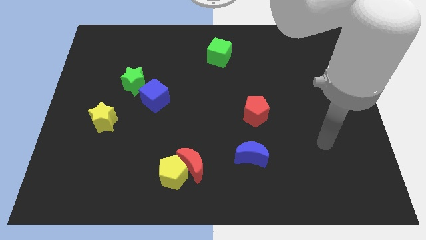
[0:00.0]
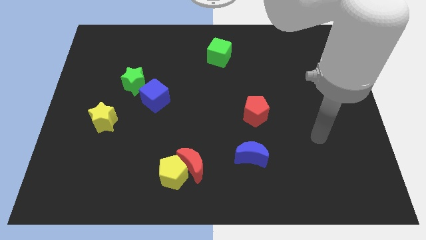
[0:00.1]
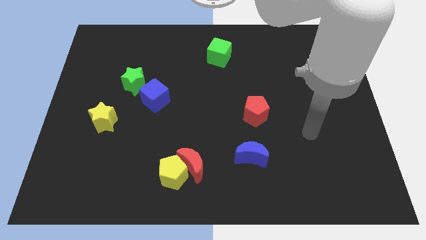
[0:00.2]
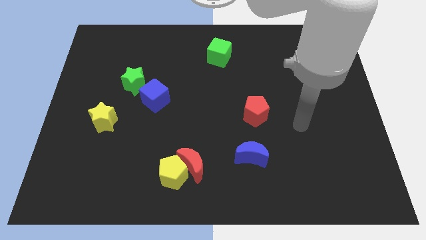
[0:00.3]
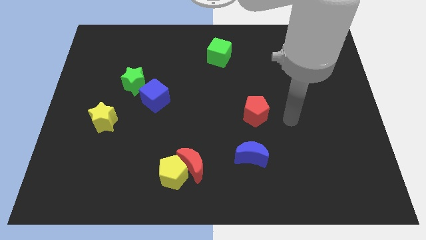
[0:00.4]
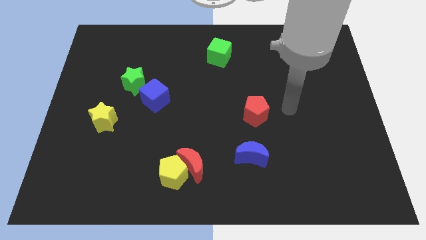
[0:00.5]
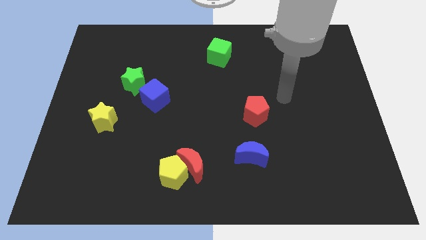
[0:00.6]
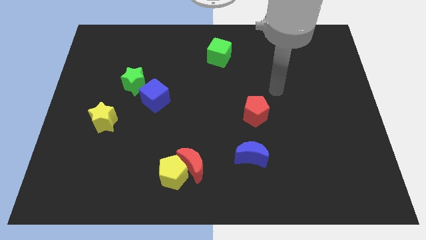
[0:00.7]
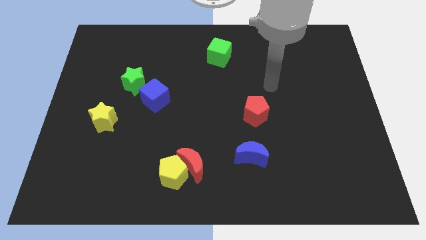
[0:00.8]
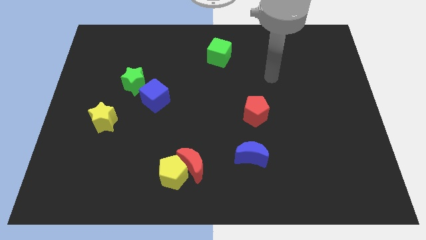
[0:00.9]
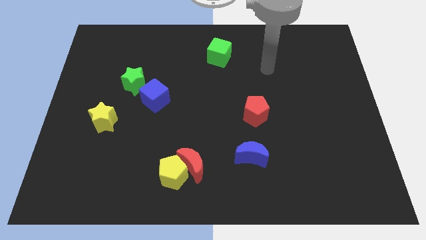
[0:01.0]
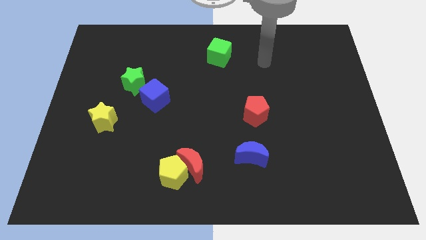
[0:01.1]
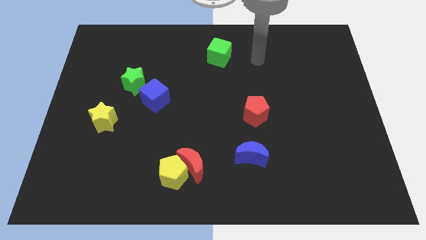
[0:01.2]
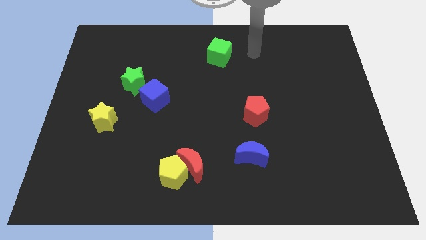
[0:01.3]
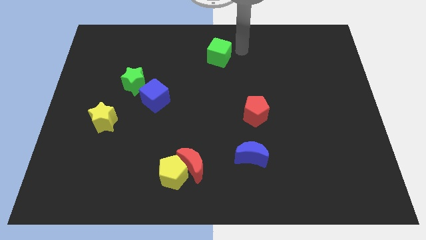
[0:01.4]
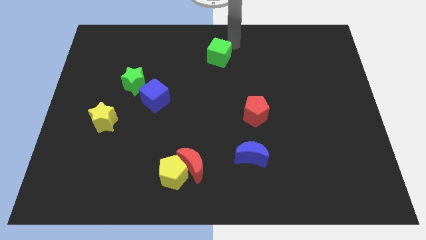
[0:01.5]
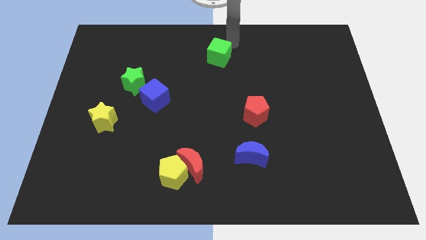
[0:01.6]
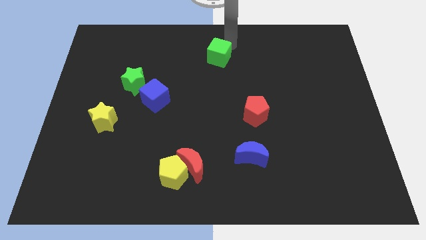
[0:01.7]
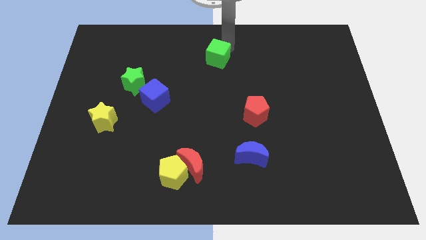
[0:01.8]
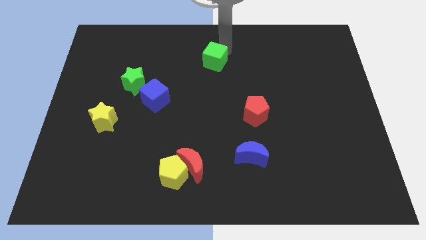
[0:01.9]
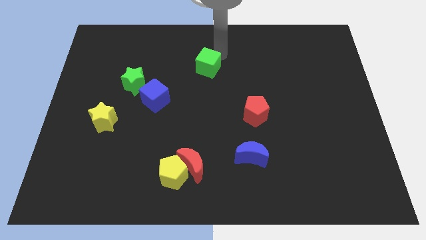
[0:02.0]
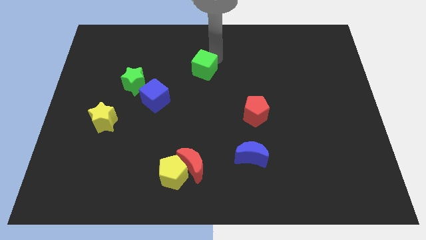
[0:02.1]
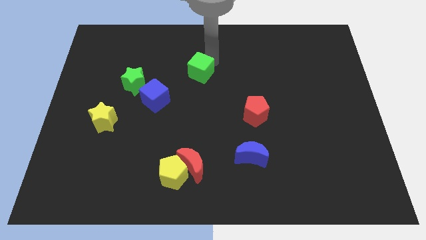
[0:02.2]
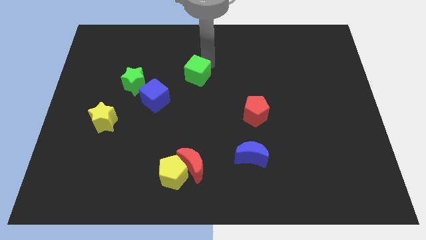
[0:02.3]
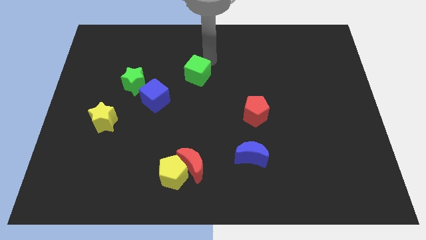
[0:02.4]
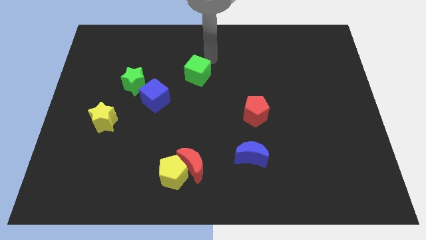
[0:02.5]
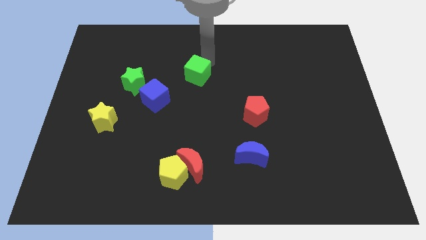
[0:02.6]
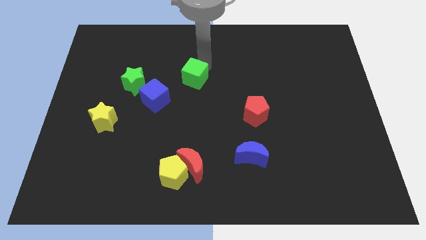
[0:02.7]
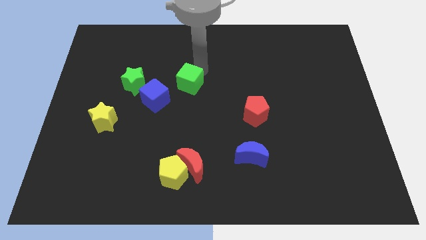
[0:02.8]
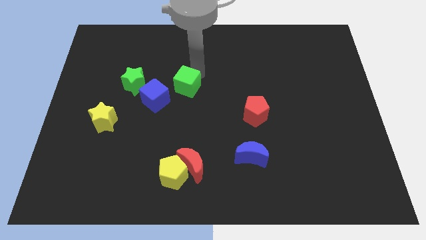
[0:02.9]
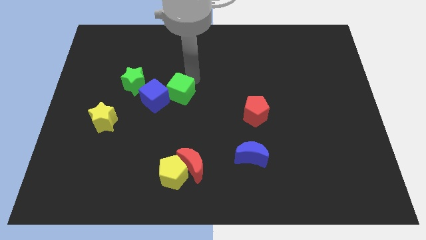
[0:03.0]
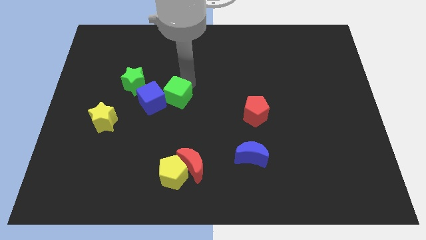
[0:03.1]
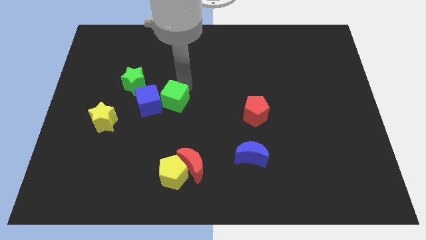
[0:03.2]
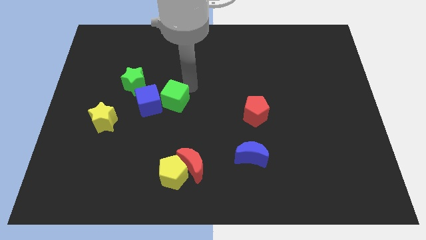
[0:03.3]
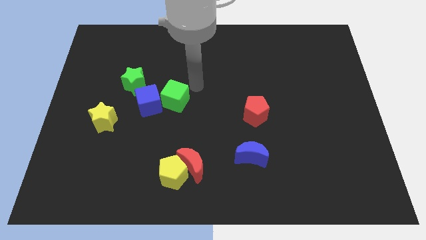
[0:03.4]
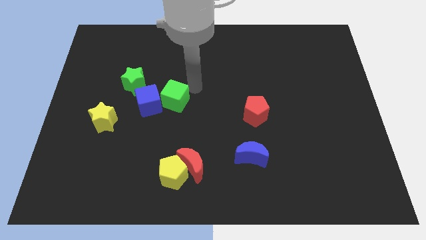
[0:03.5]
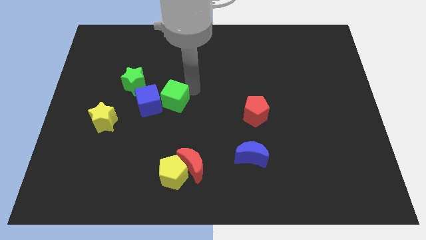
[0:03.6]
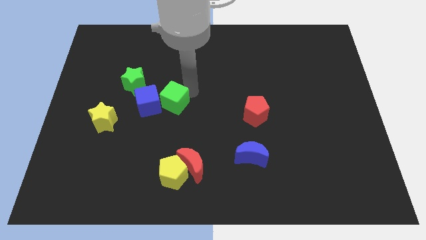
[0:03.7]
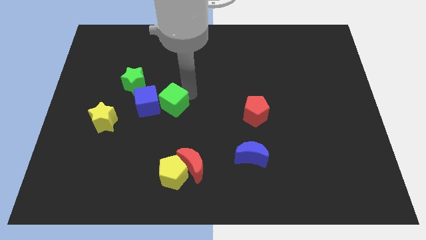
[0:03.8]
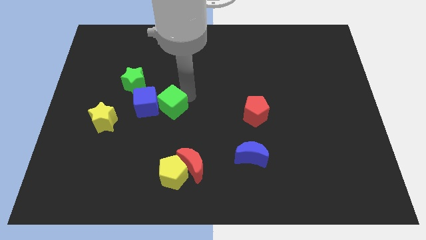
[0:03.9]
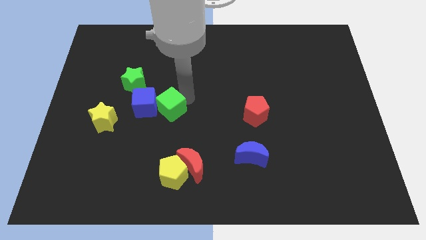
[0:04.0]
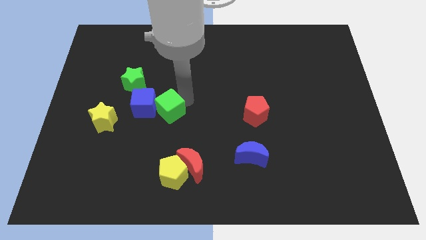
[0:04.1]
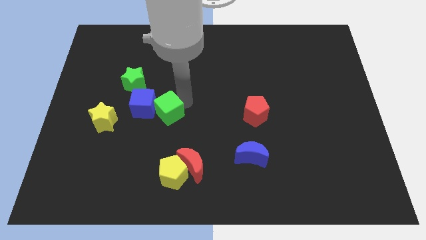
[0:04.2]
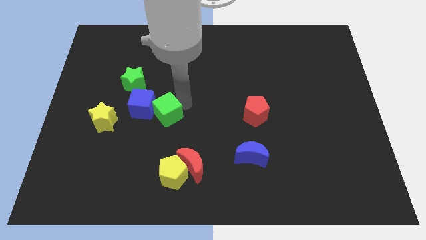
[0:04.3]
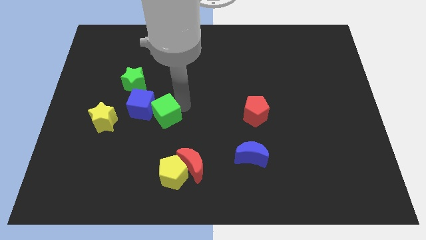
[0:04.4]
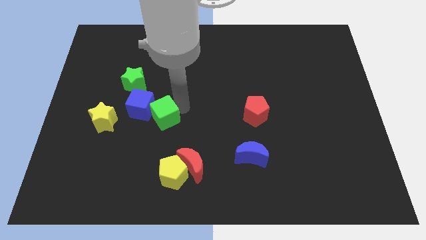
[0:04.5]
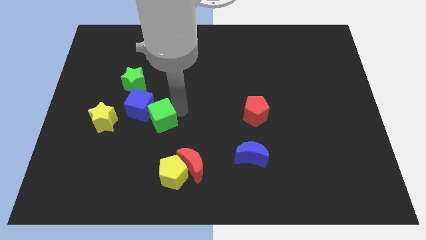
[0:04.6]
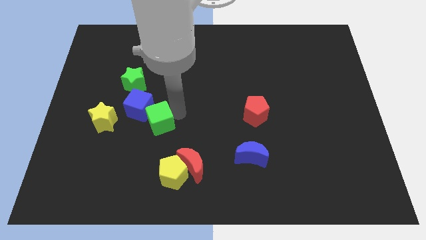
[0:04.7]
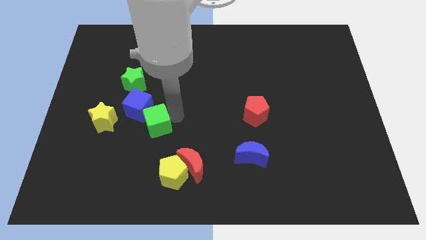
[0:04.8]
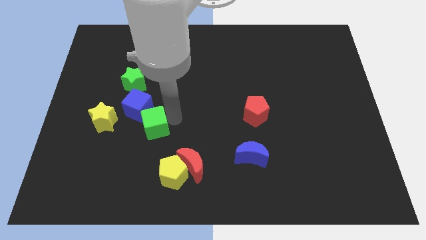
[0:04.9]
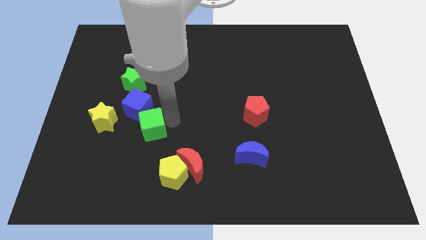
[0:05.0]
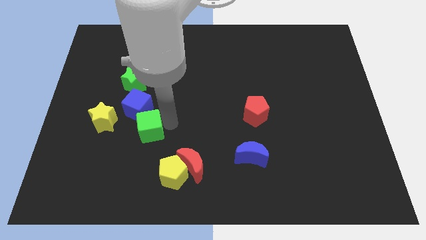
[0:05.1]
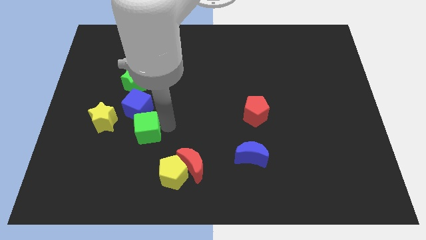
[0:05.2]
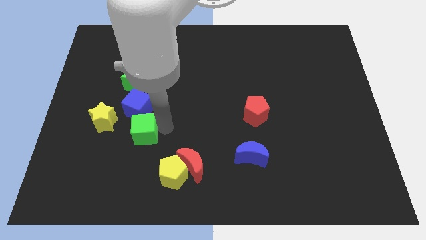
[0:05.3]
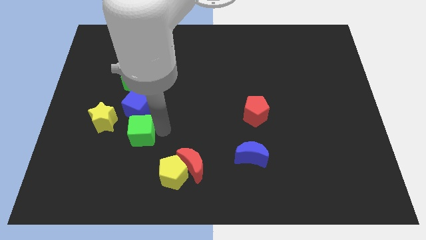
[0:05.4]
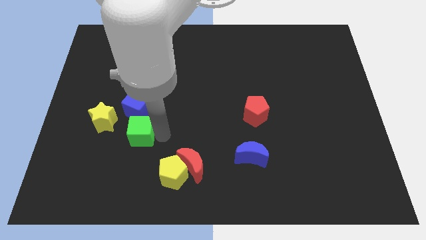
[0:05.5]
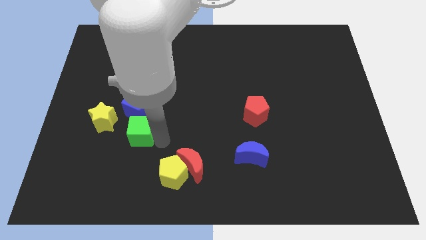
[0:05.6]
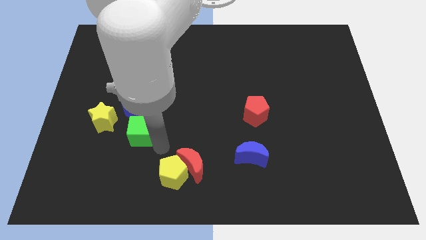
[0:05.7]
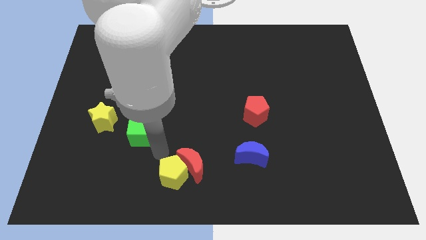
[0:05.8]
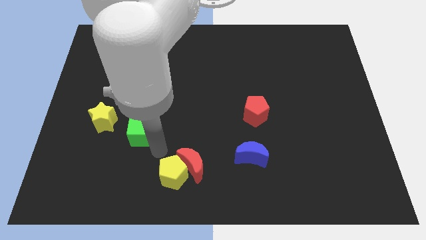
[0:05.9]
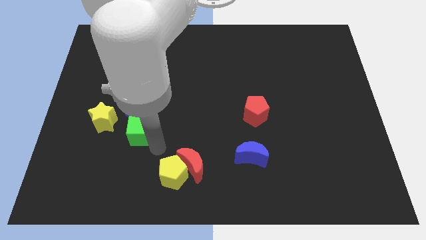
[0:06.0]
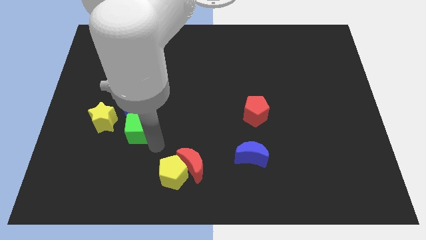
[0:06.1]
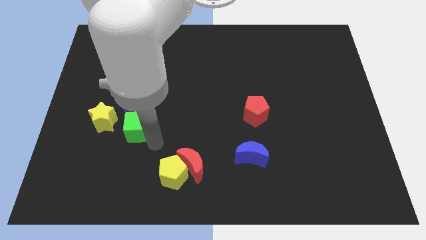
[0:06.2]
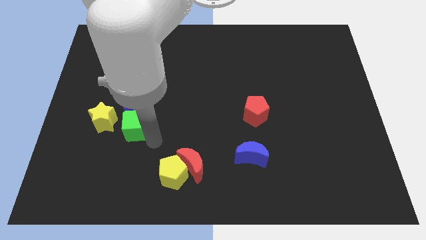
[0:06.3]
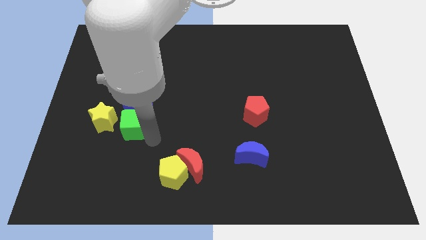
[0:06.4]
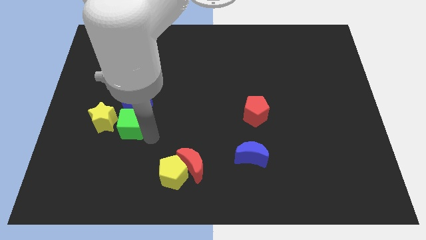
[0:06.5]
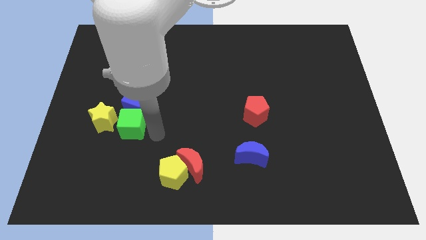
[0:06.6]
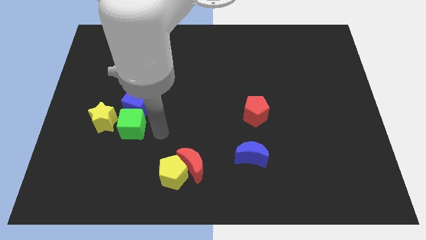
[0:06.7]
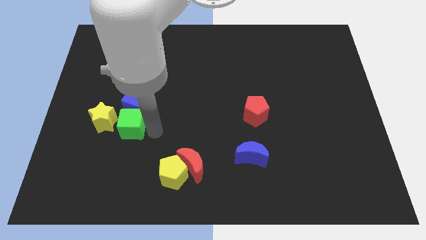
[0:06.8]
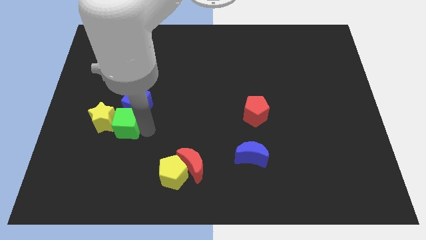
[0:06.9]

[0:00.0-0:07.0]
push the green cube close to the yellow star
